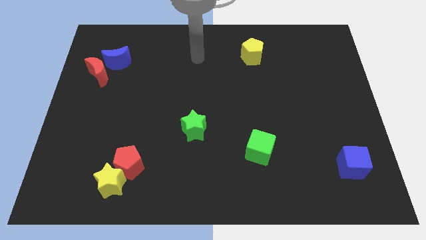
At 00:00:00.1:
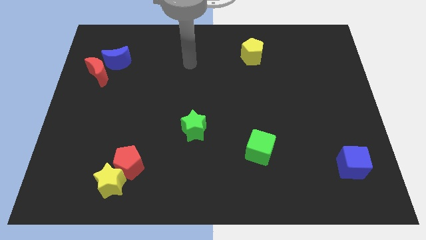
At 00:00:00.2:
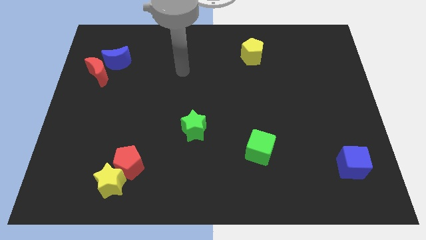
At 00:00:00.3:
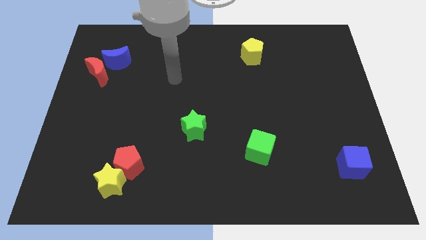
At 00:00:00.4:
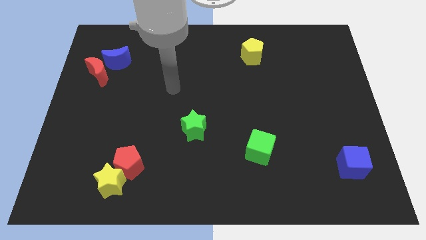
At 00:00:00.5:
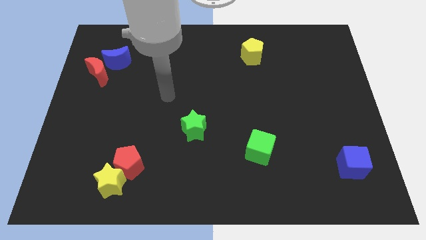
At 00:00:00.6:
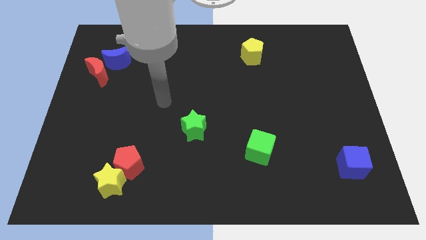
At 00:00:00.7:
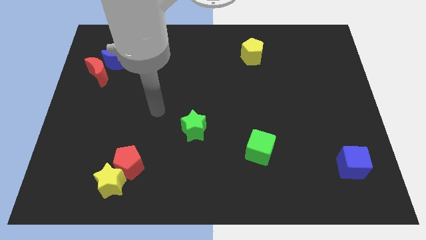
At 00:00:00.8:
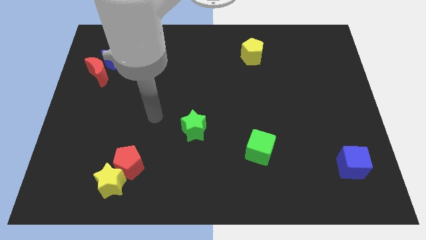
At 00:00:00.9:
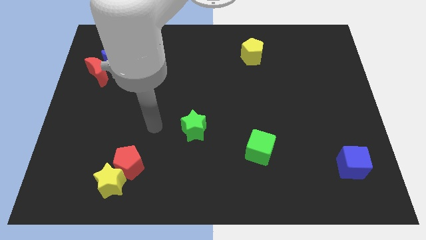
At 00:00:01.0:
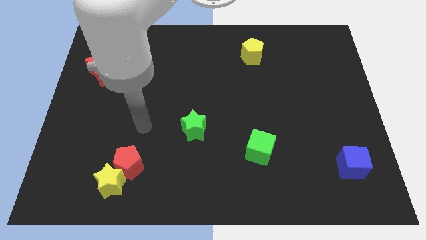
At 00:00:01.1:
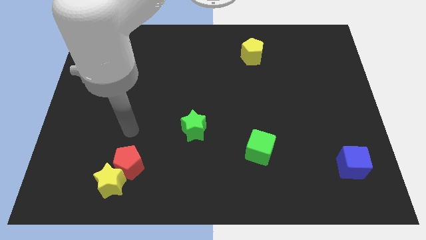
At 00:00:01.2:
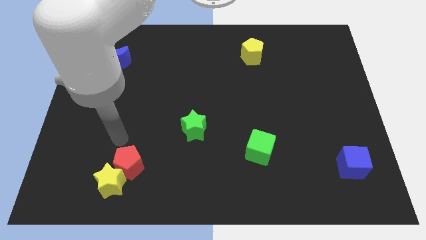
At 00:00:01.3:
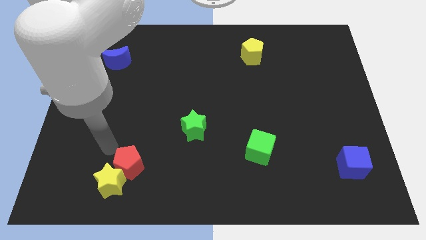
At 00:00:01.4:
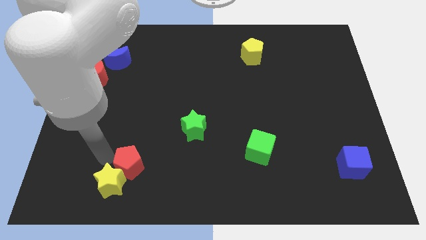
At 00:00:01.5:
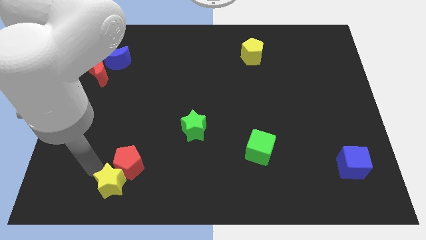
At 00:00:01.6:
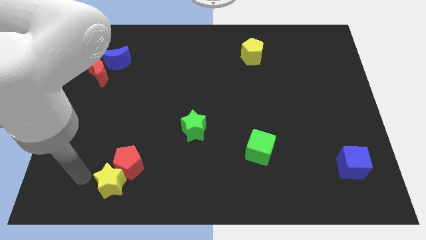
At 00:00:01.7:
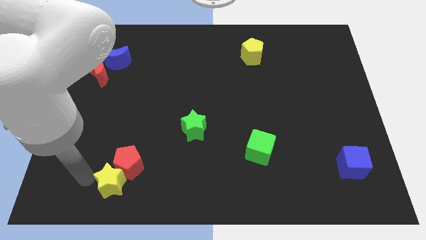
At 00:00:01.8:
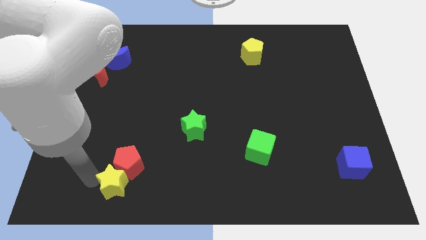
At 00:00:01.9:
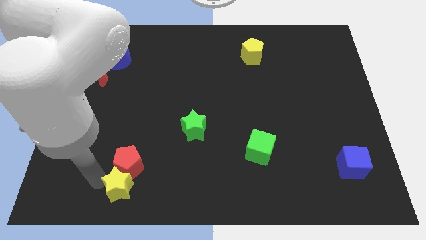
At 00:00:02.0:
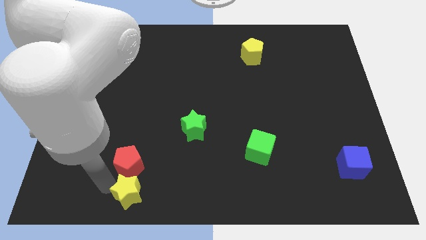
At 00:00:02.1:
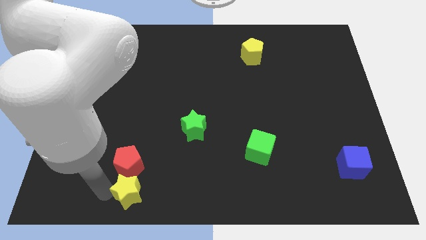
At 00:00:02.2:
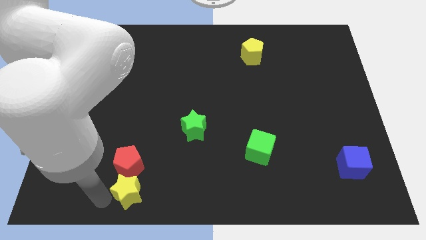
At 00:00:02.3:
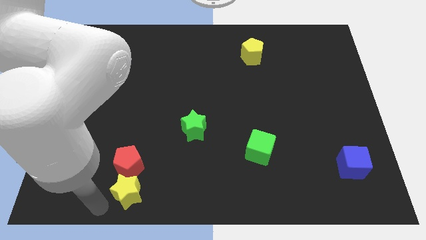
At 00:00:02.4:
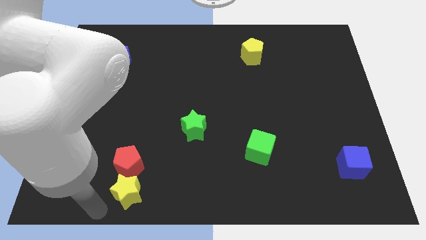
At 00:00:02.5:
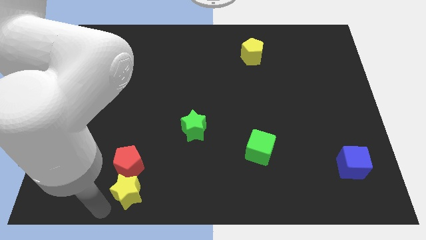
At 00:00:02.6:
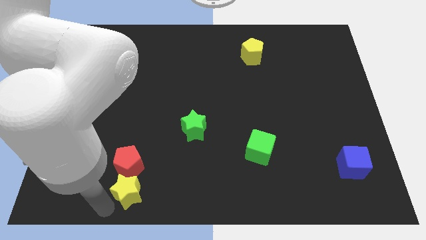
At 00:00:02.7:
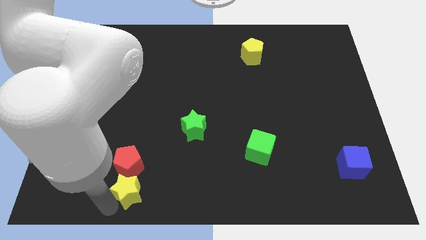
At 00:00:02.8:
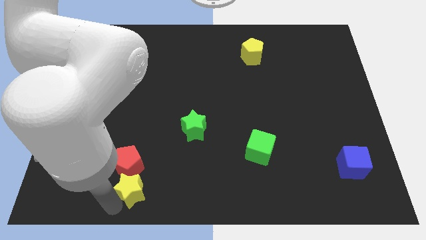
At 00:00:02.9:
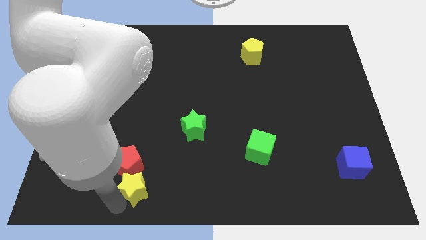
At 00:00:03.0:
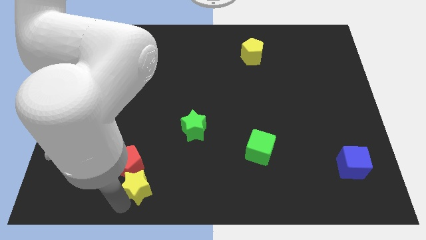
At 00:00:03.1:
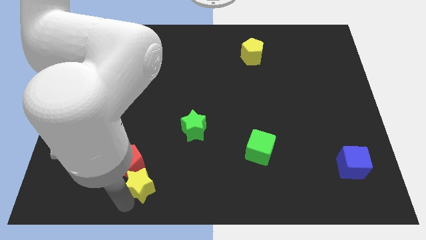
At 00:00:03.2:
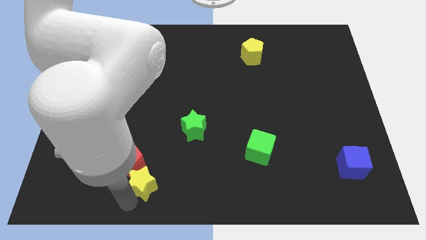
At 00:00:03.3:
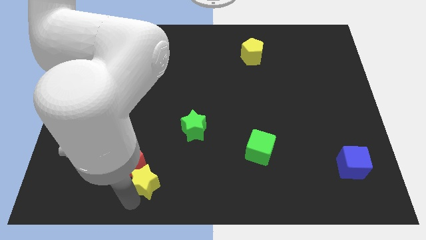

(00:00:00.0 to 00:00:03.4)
push the yellow star a little bit right

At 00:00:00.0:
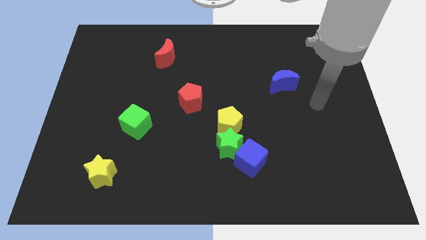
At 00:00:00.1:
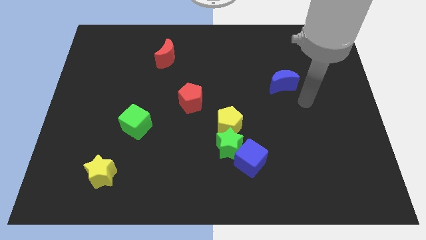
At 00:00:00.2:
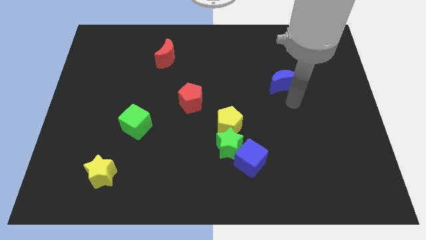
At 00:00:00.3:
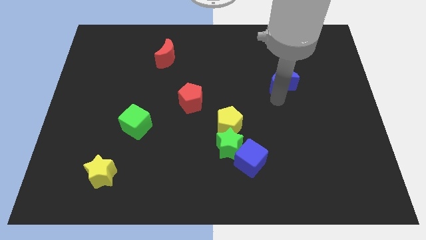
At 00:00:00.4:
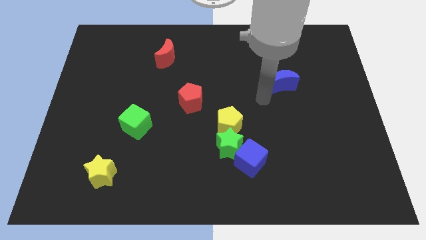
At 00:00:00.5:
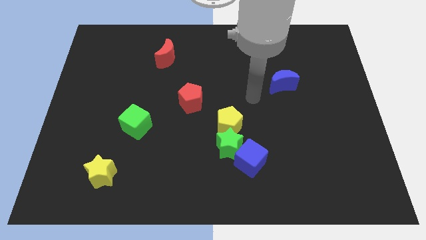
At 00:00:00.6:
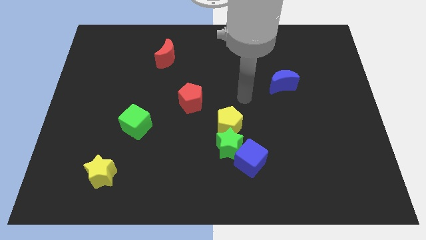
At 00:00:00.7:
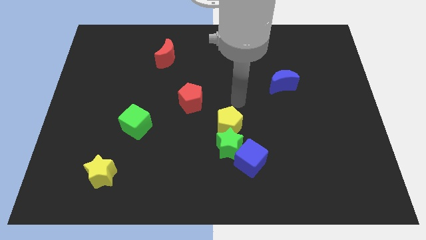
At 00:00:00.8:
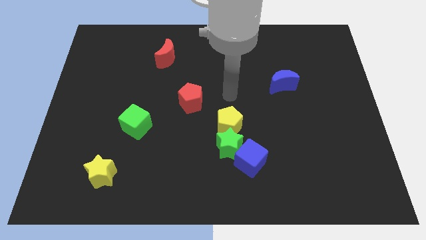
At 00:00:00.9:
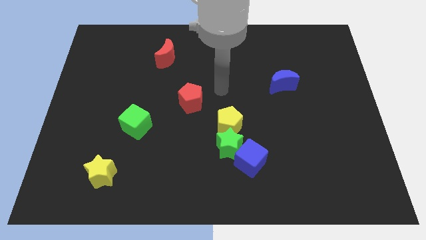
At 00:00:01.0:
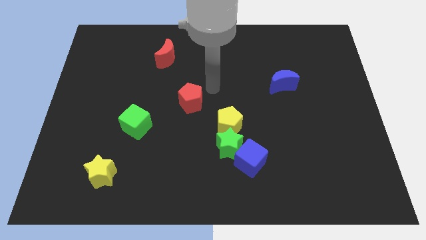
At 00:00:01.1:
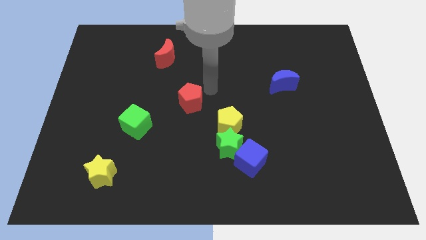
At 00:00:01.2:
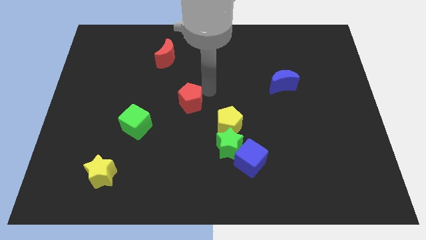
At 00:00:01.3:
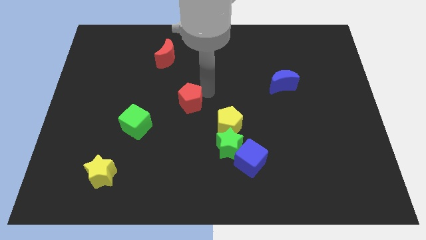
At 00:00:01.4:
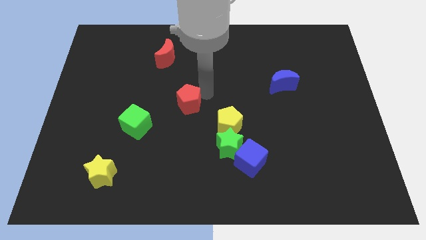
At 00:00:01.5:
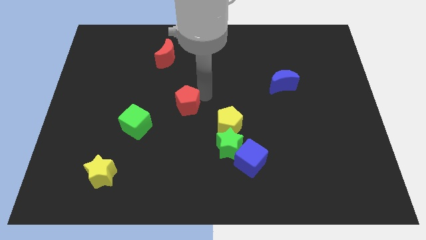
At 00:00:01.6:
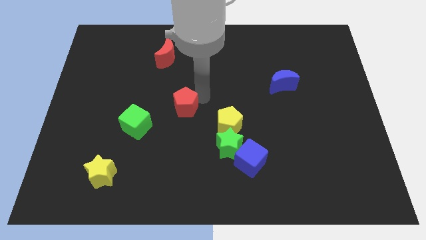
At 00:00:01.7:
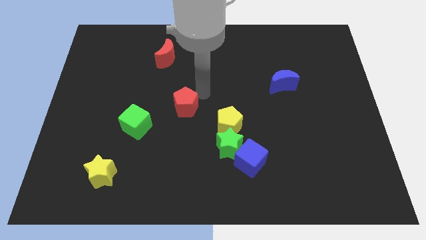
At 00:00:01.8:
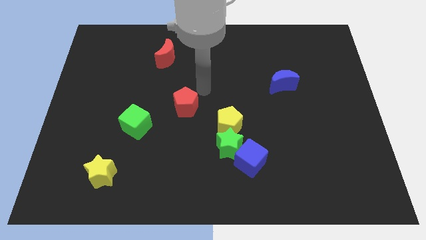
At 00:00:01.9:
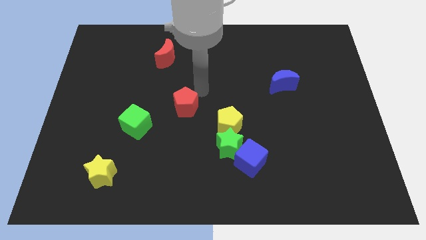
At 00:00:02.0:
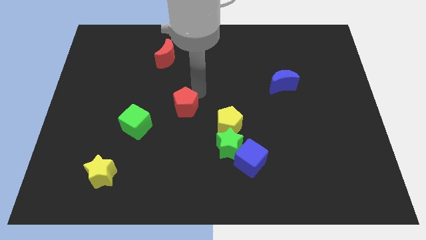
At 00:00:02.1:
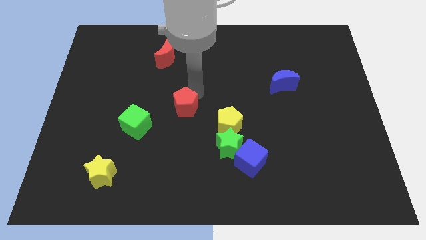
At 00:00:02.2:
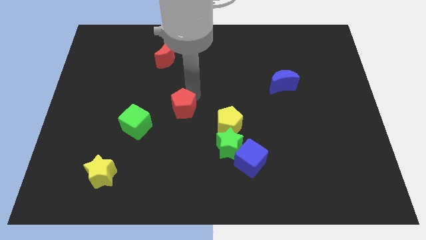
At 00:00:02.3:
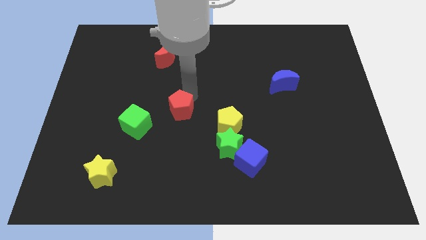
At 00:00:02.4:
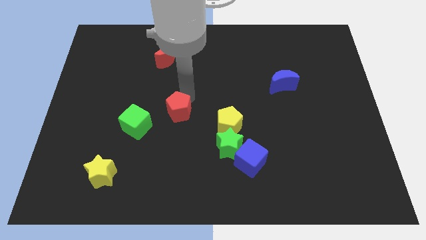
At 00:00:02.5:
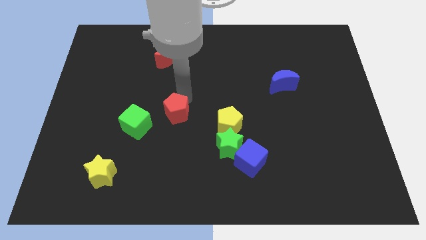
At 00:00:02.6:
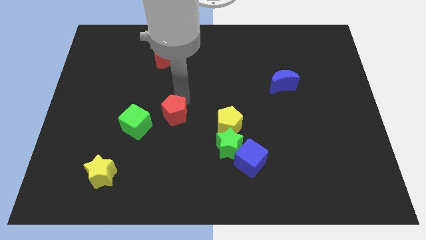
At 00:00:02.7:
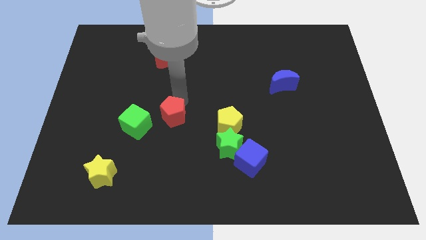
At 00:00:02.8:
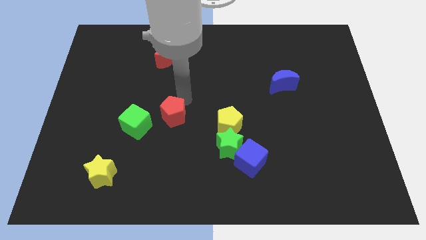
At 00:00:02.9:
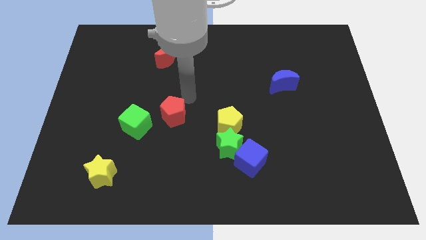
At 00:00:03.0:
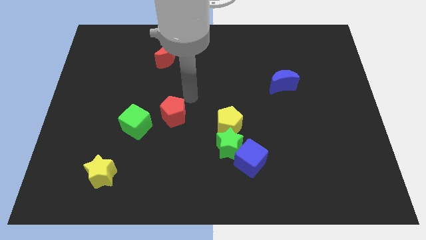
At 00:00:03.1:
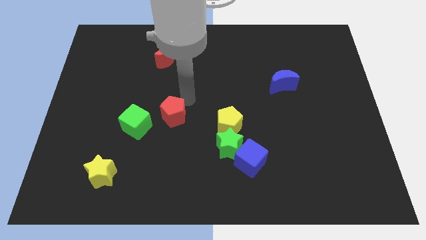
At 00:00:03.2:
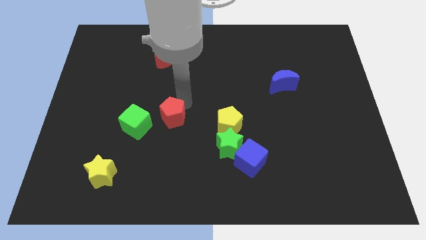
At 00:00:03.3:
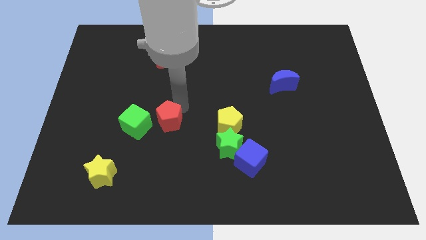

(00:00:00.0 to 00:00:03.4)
slightly move the red pentagon downwards and left diagonally

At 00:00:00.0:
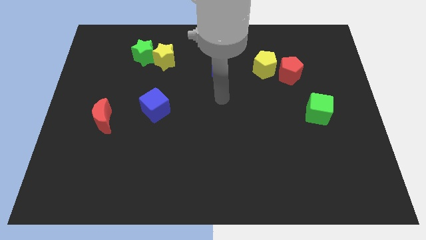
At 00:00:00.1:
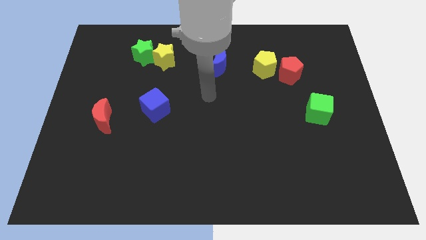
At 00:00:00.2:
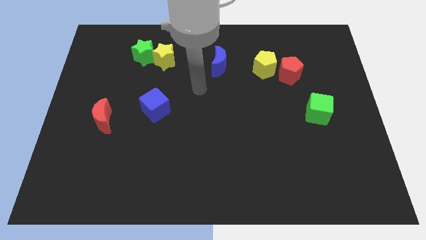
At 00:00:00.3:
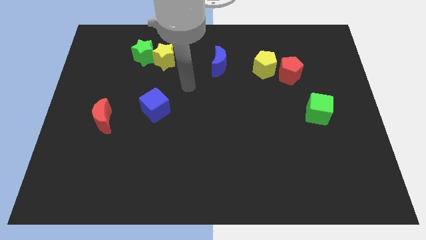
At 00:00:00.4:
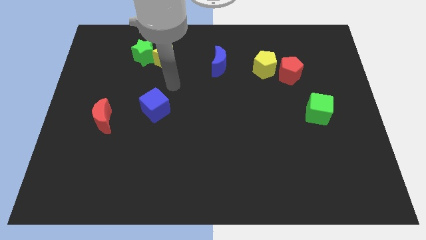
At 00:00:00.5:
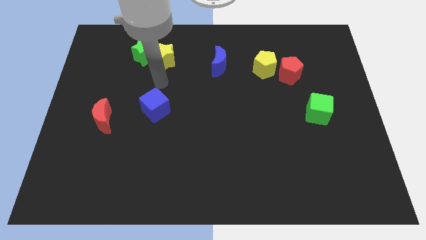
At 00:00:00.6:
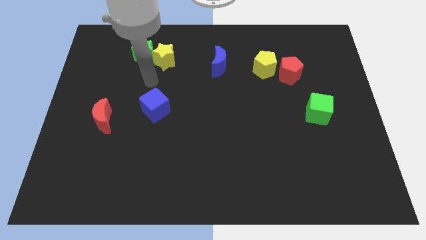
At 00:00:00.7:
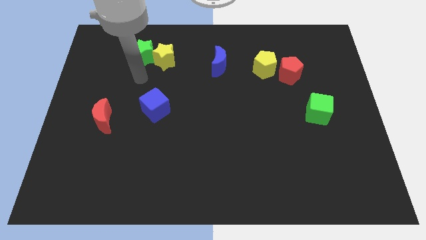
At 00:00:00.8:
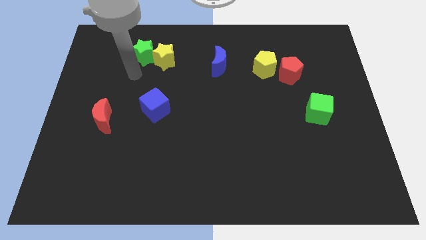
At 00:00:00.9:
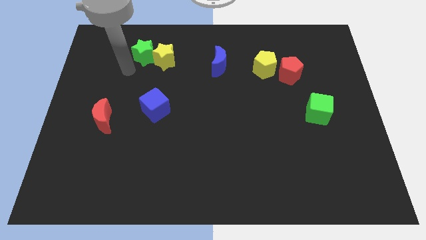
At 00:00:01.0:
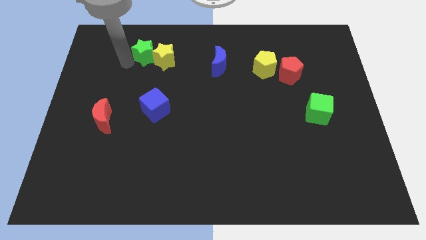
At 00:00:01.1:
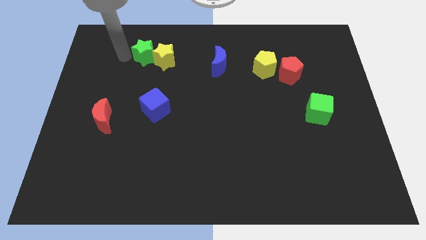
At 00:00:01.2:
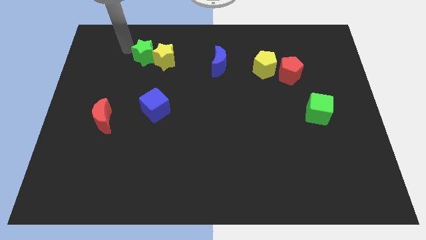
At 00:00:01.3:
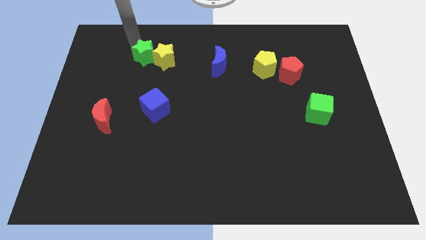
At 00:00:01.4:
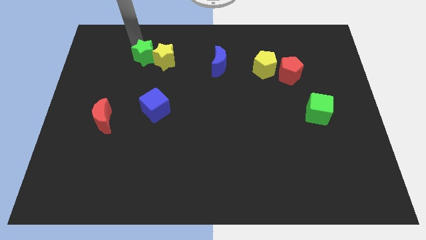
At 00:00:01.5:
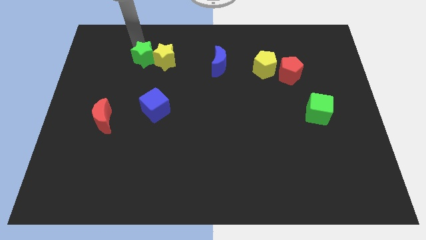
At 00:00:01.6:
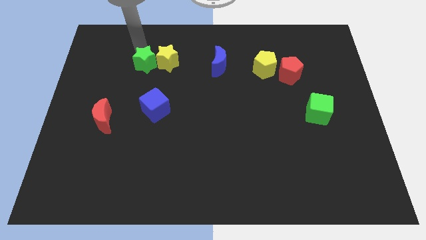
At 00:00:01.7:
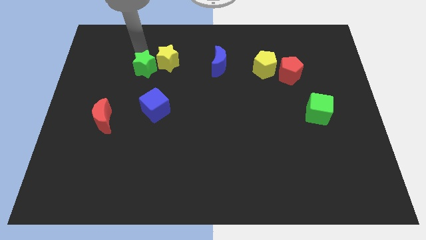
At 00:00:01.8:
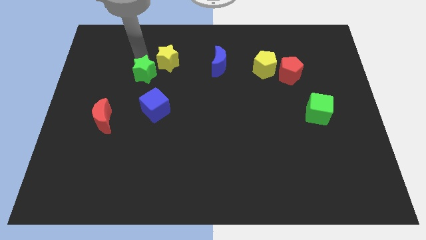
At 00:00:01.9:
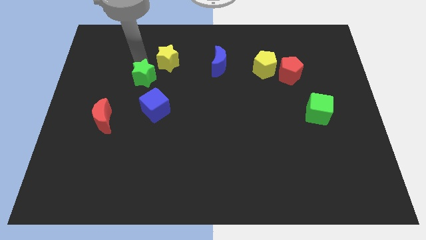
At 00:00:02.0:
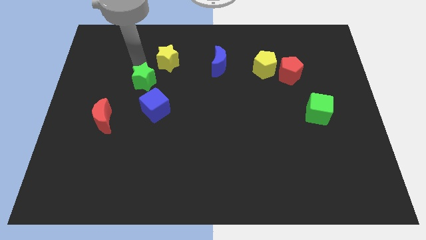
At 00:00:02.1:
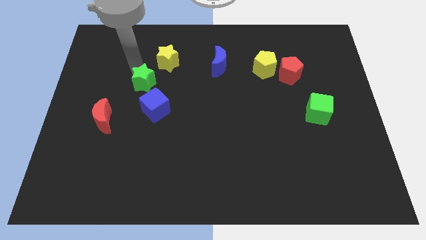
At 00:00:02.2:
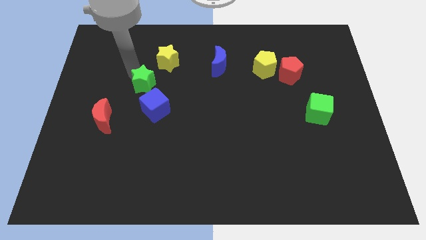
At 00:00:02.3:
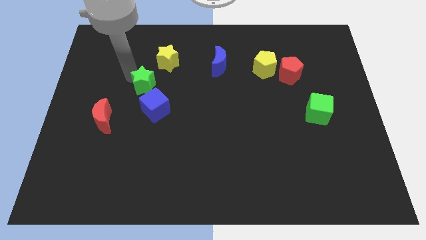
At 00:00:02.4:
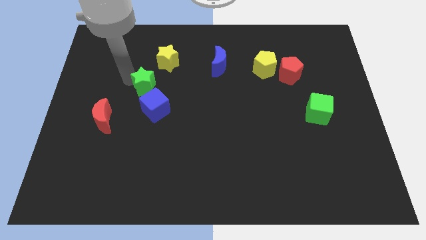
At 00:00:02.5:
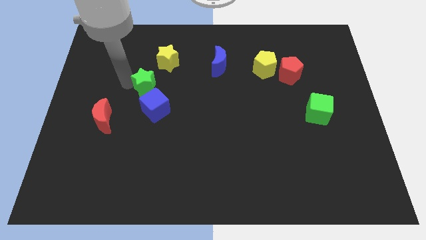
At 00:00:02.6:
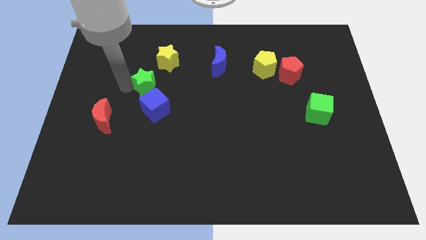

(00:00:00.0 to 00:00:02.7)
push the green star slightly down and to the right diagonally
